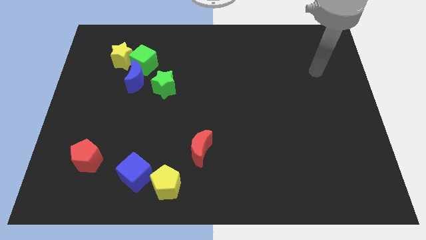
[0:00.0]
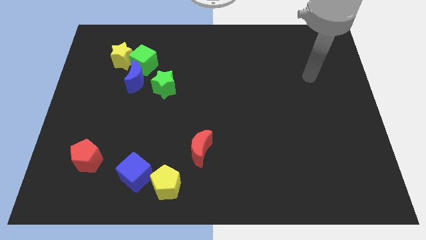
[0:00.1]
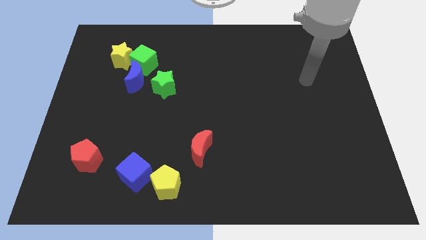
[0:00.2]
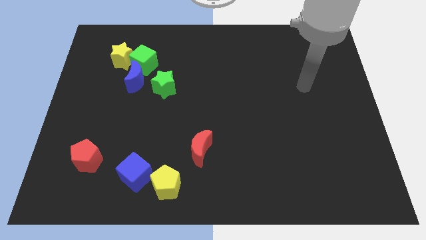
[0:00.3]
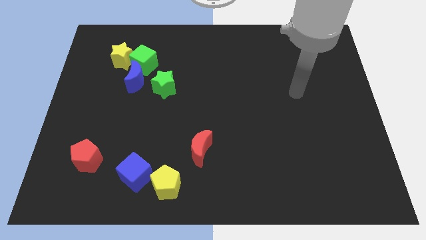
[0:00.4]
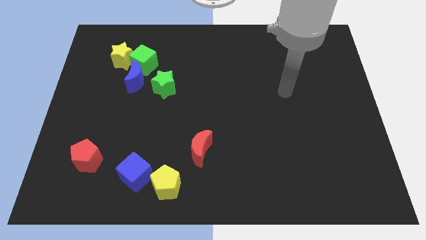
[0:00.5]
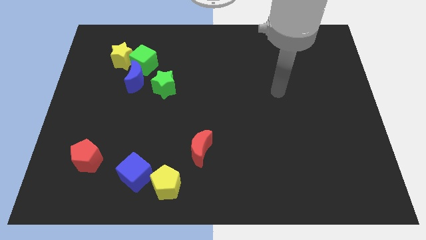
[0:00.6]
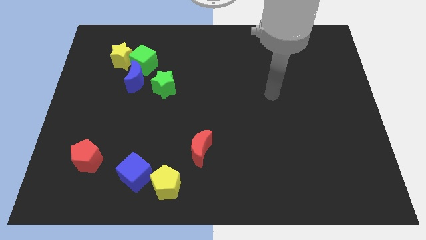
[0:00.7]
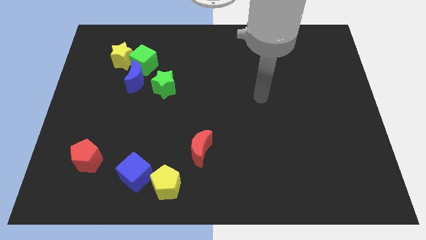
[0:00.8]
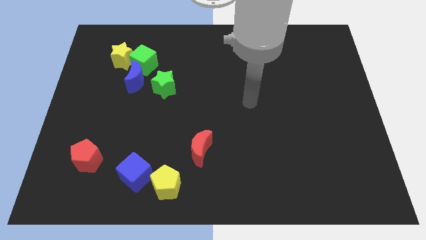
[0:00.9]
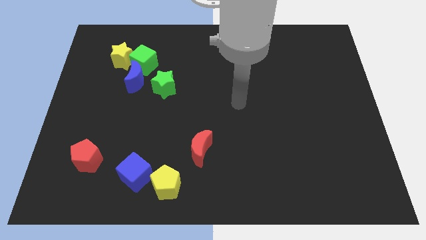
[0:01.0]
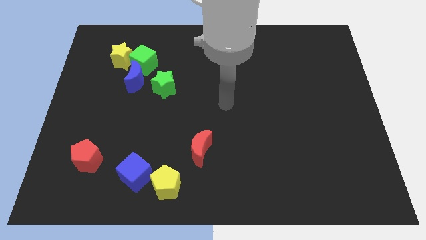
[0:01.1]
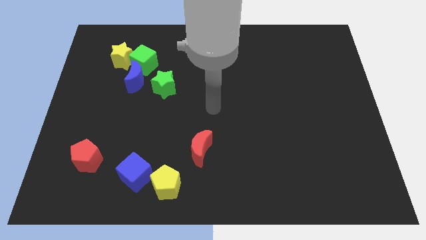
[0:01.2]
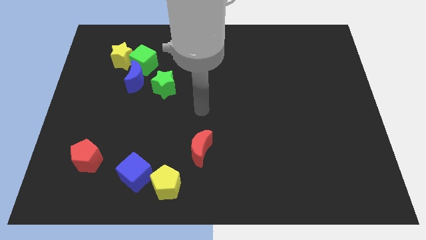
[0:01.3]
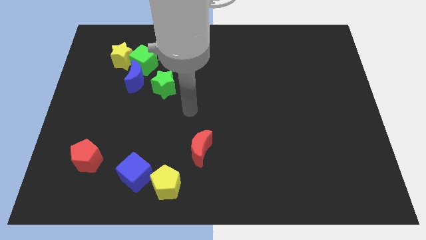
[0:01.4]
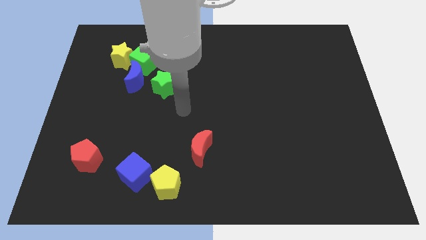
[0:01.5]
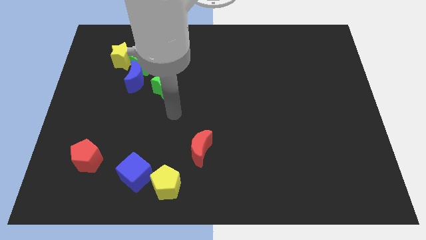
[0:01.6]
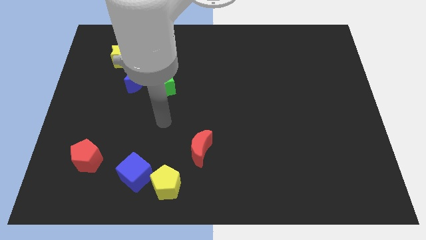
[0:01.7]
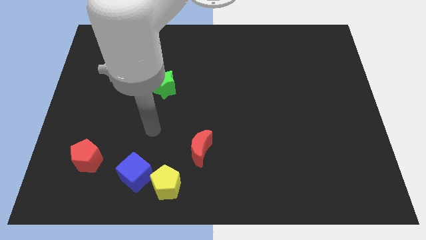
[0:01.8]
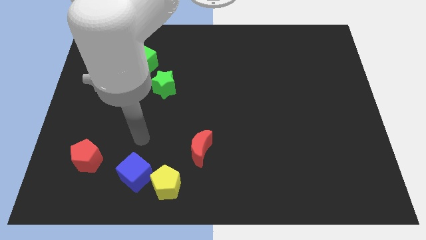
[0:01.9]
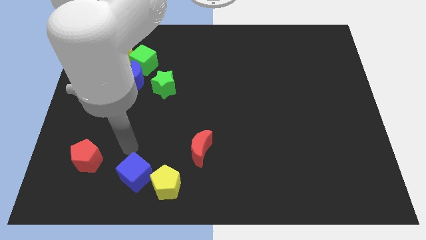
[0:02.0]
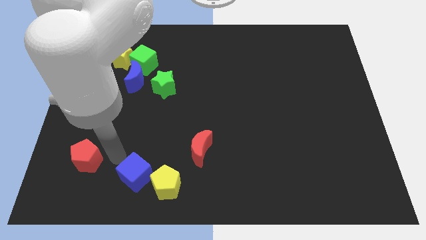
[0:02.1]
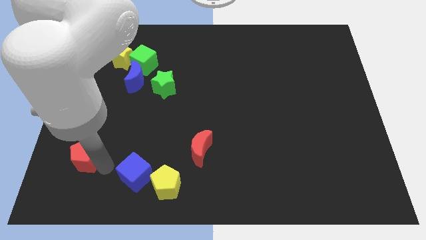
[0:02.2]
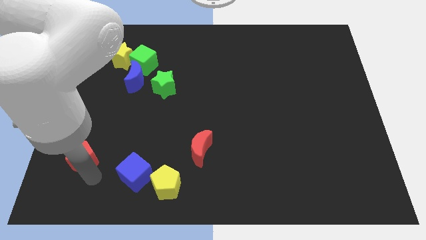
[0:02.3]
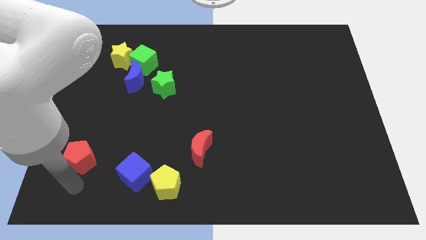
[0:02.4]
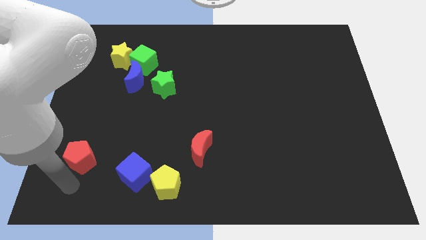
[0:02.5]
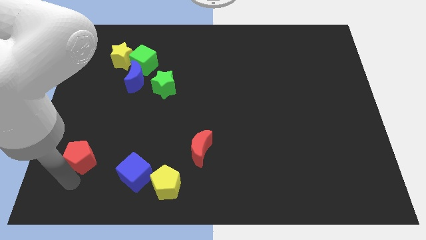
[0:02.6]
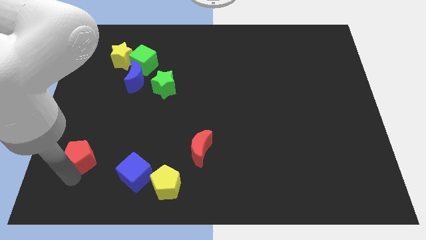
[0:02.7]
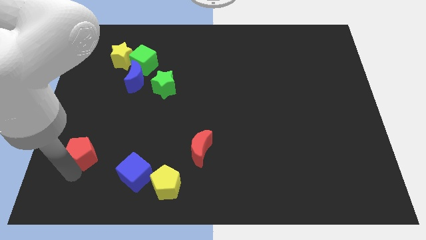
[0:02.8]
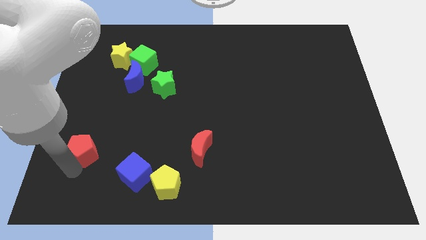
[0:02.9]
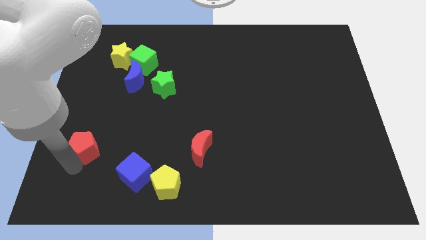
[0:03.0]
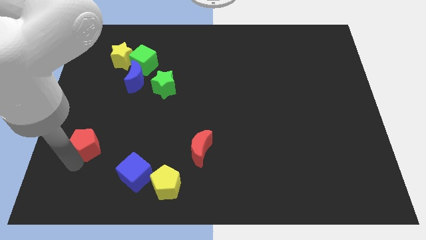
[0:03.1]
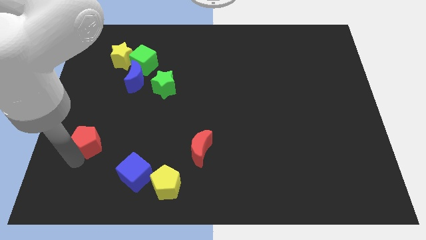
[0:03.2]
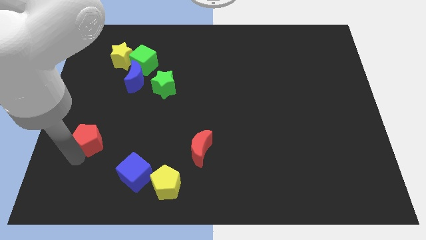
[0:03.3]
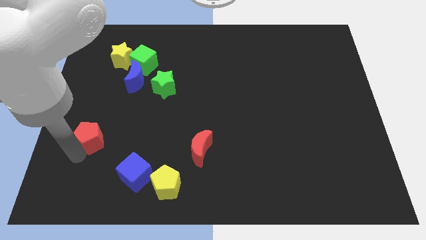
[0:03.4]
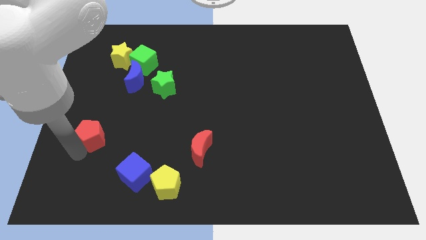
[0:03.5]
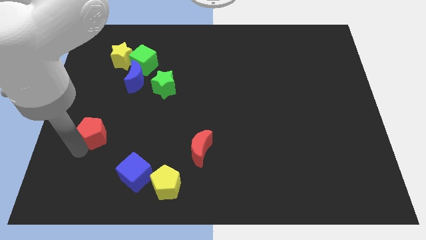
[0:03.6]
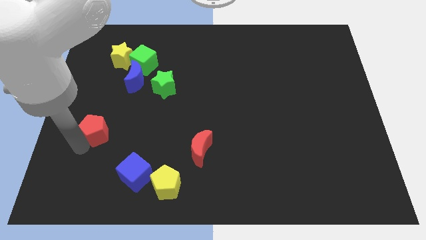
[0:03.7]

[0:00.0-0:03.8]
slide the red pentagon up a little bit

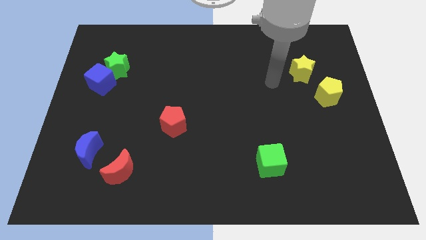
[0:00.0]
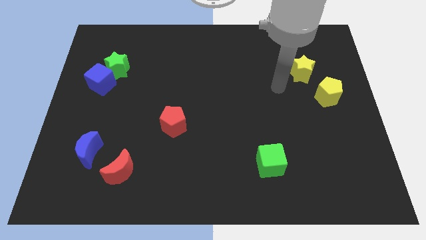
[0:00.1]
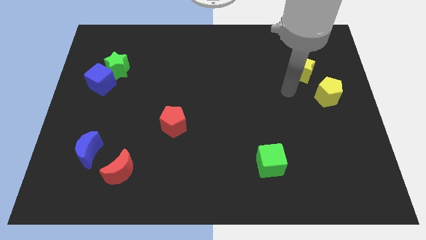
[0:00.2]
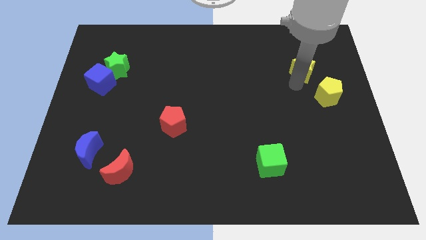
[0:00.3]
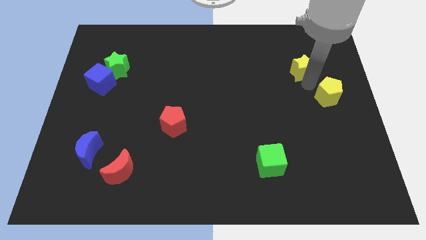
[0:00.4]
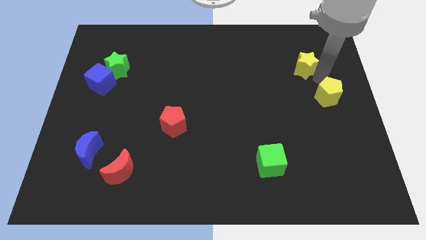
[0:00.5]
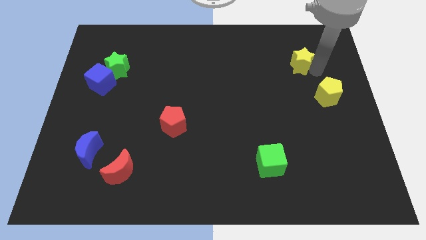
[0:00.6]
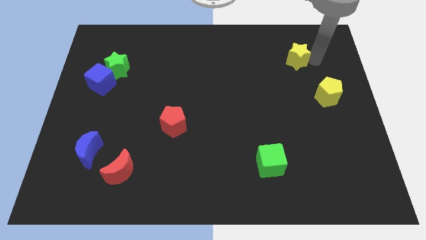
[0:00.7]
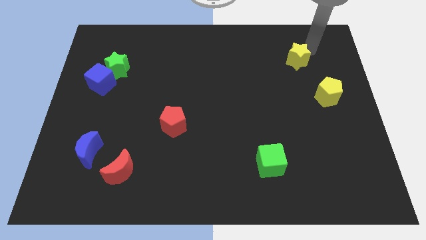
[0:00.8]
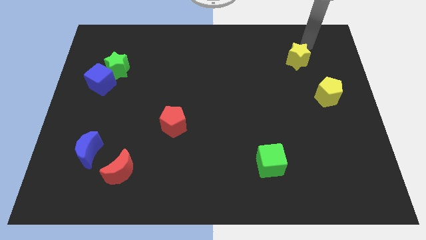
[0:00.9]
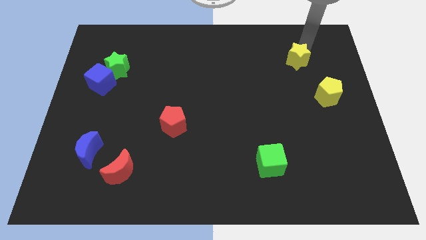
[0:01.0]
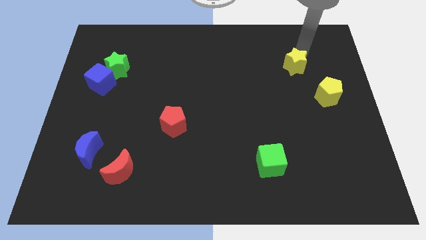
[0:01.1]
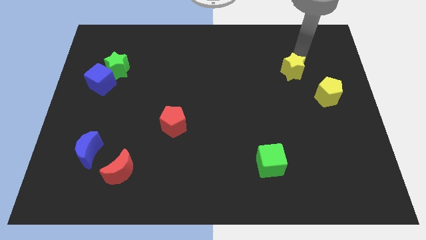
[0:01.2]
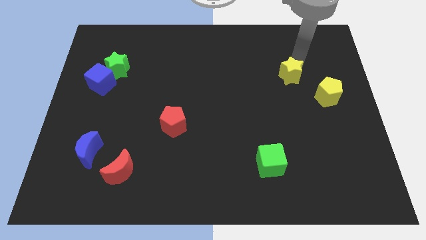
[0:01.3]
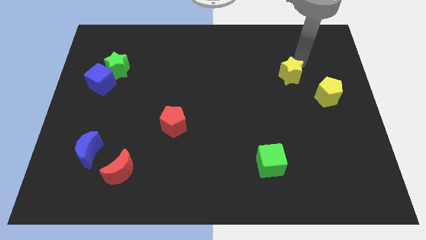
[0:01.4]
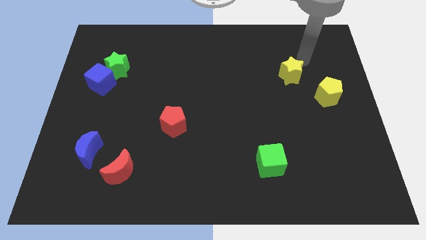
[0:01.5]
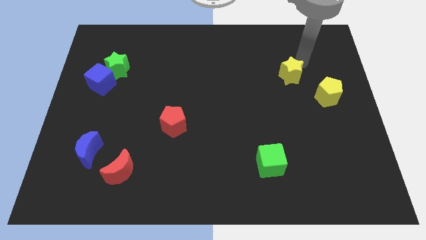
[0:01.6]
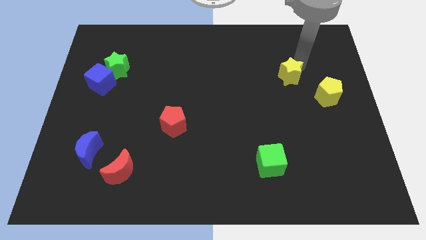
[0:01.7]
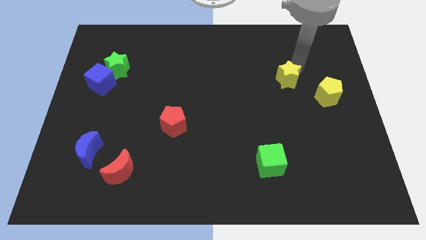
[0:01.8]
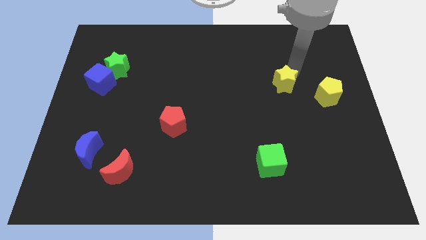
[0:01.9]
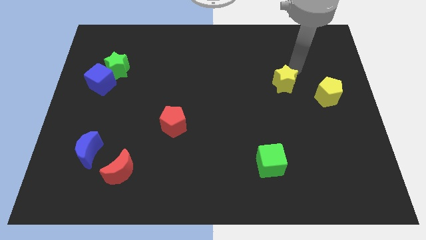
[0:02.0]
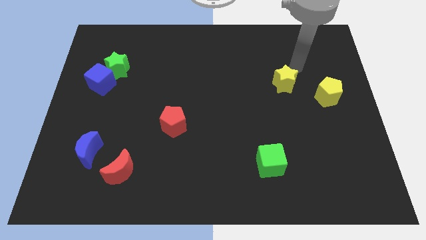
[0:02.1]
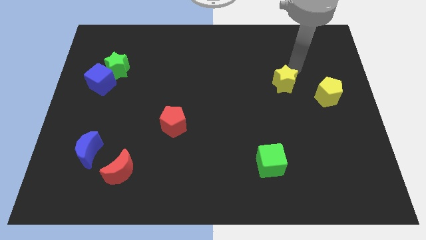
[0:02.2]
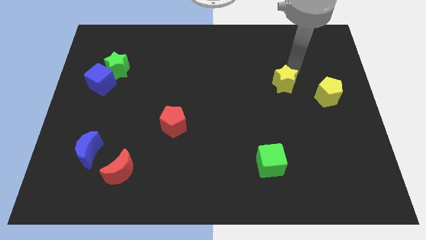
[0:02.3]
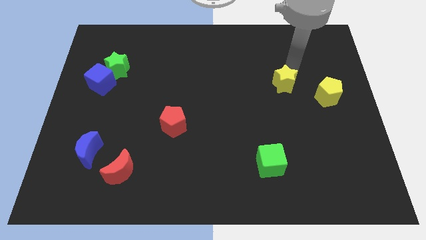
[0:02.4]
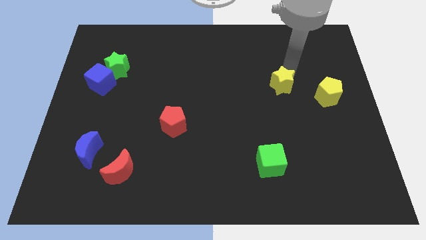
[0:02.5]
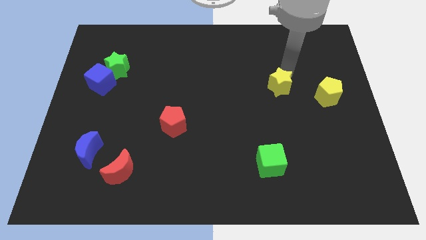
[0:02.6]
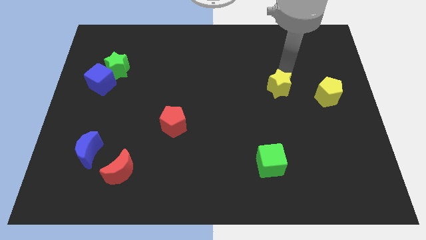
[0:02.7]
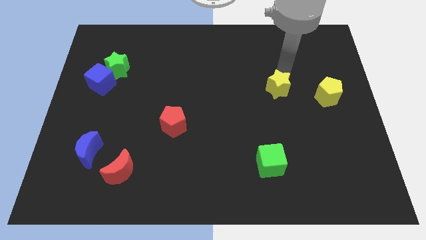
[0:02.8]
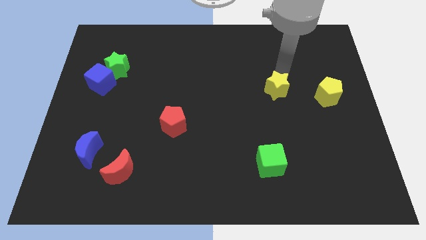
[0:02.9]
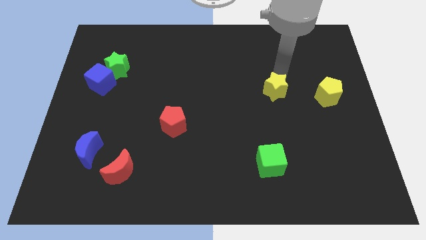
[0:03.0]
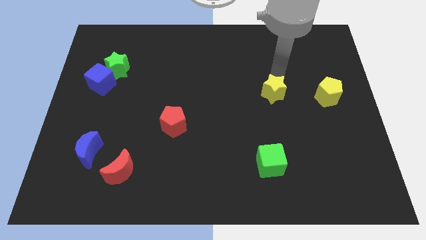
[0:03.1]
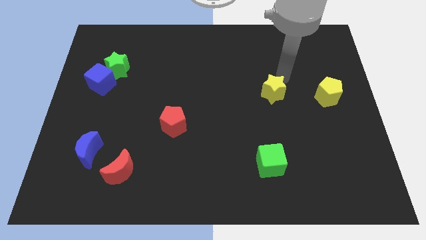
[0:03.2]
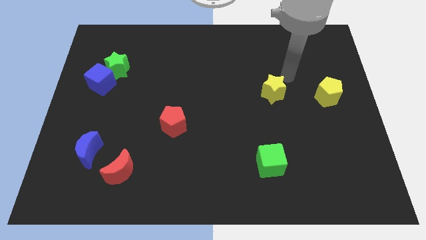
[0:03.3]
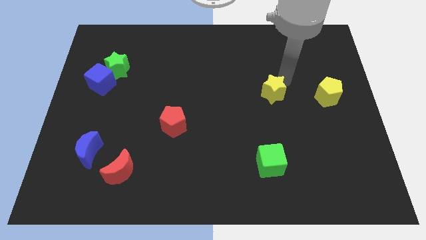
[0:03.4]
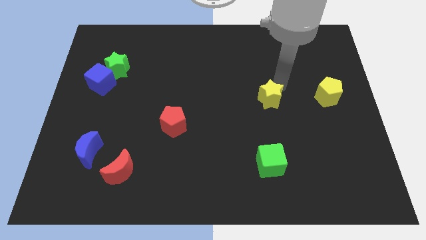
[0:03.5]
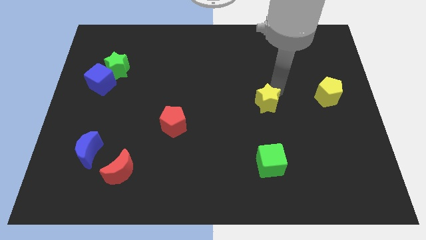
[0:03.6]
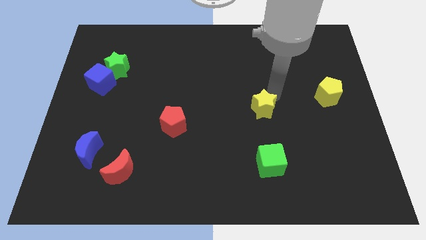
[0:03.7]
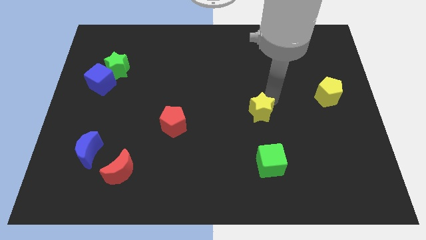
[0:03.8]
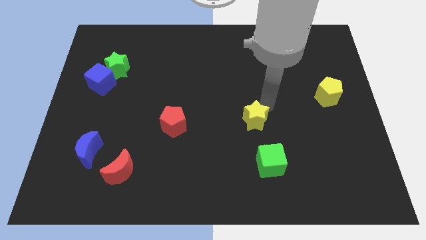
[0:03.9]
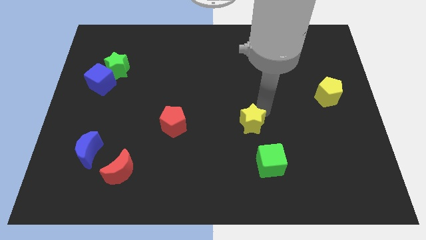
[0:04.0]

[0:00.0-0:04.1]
push the yellow star down and to the left diagonally
